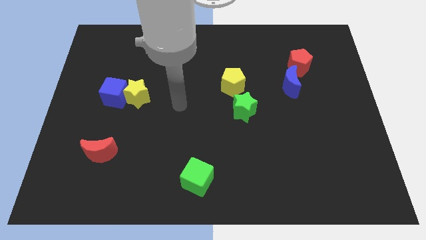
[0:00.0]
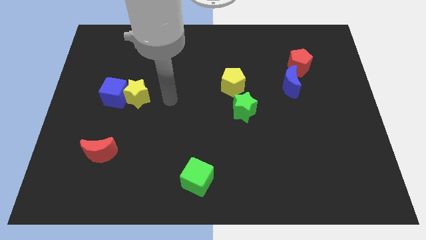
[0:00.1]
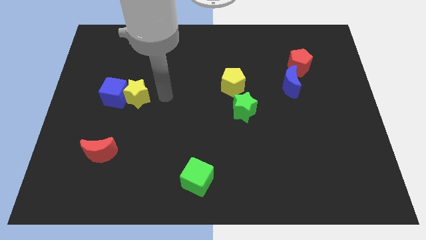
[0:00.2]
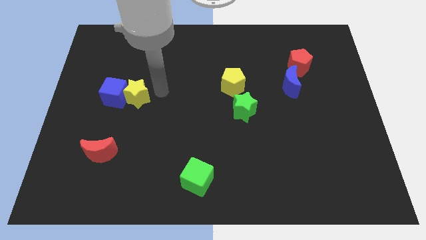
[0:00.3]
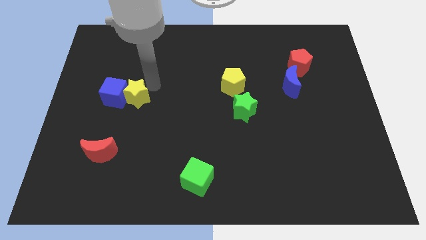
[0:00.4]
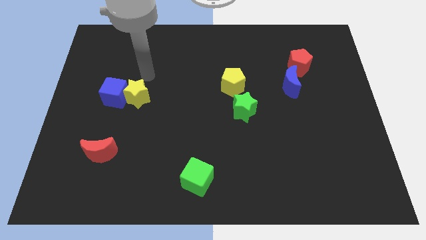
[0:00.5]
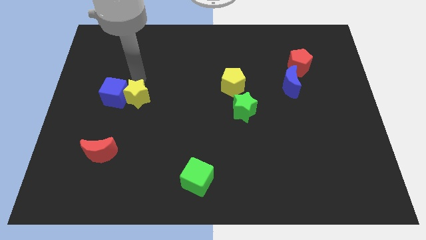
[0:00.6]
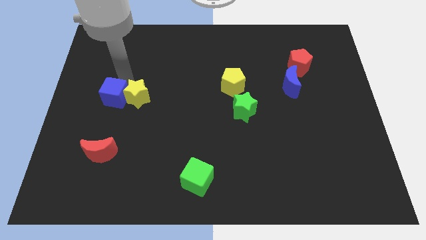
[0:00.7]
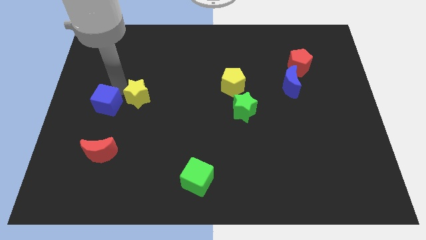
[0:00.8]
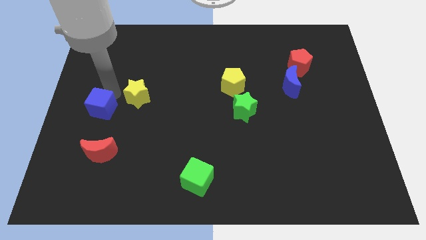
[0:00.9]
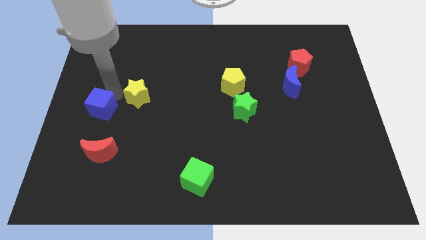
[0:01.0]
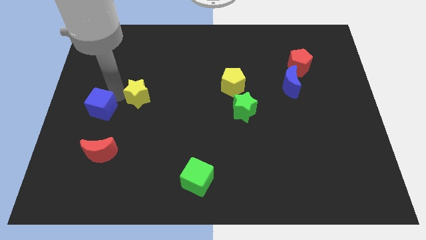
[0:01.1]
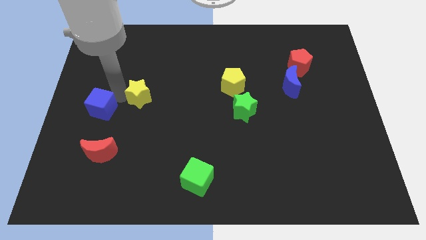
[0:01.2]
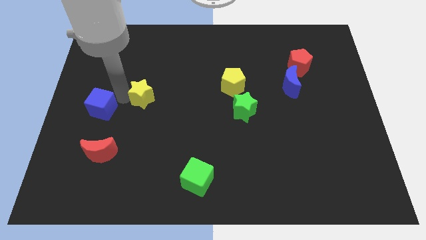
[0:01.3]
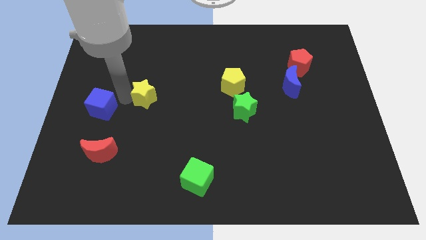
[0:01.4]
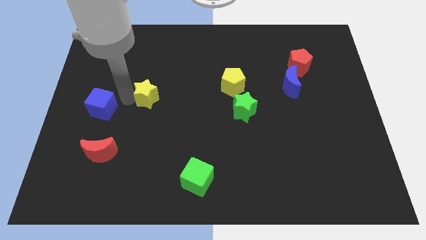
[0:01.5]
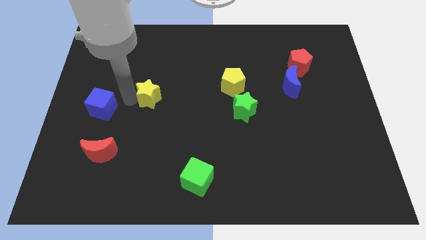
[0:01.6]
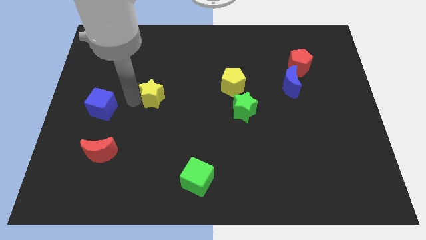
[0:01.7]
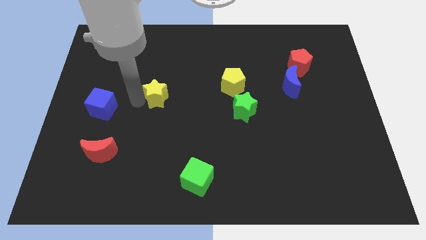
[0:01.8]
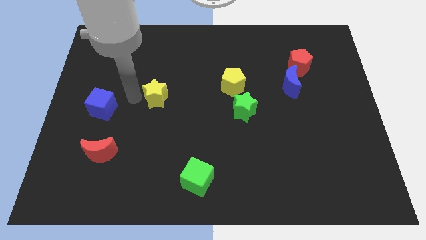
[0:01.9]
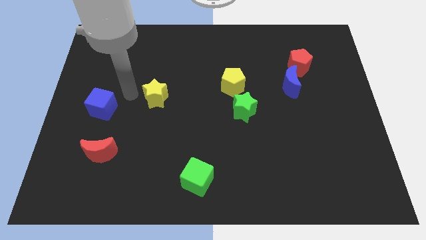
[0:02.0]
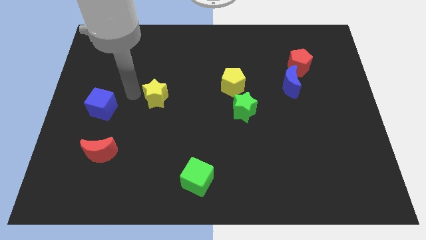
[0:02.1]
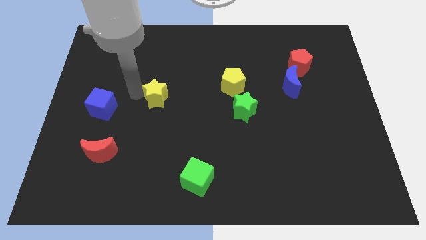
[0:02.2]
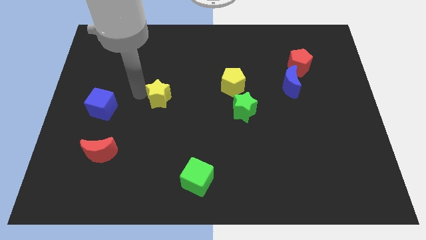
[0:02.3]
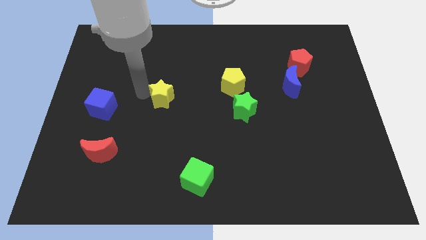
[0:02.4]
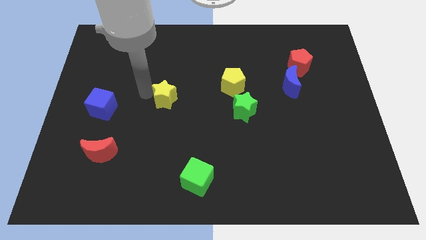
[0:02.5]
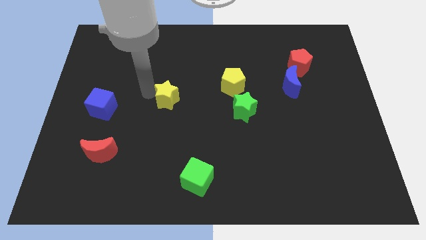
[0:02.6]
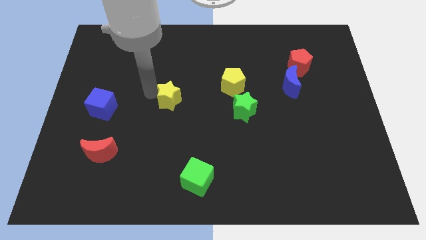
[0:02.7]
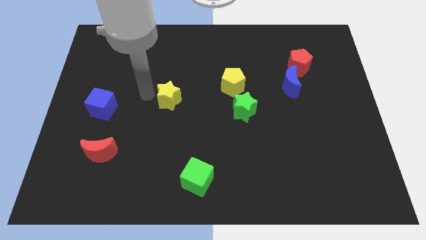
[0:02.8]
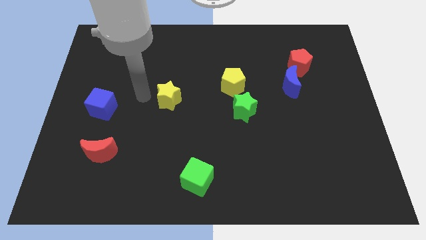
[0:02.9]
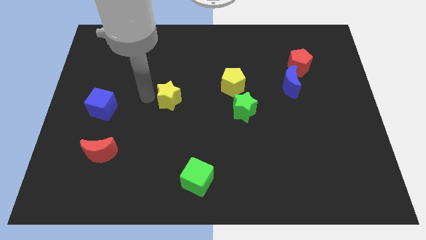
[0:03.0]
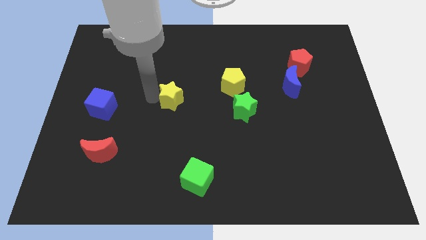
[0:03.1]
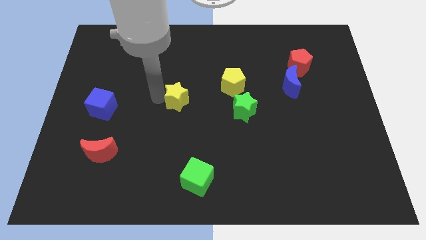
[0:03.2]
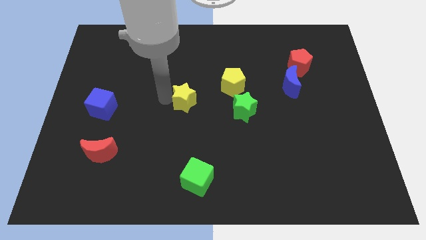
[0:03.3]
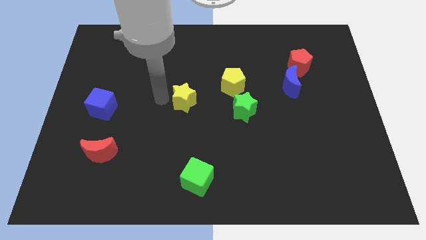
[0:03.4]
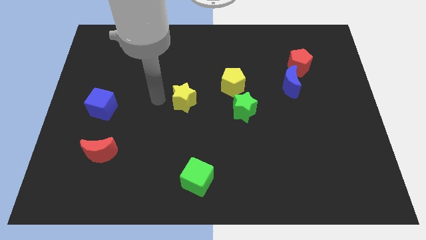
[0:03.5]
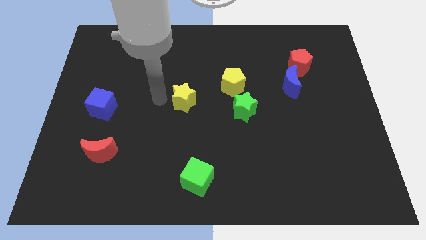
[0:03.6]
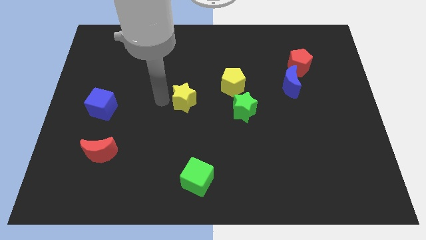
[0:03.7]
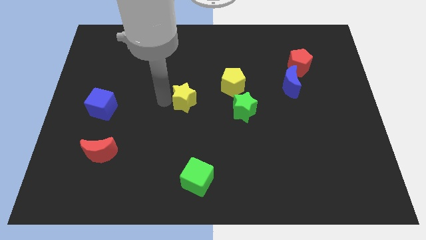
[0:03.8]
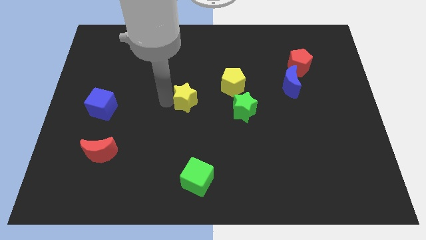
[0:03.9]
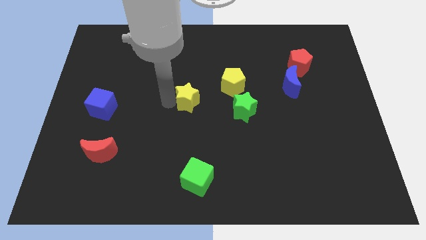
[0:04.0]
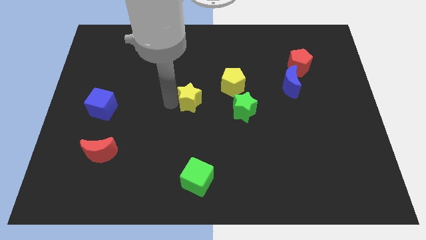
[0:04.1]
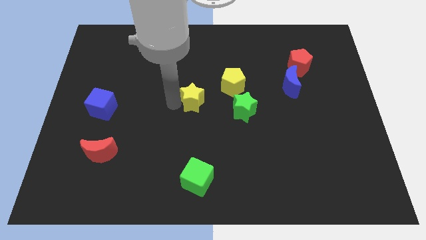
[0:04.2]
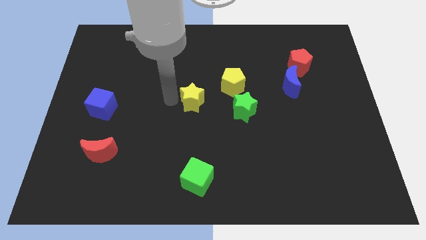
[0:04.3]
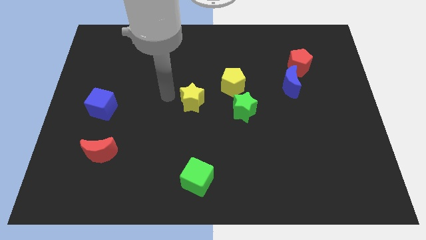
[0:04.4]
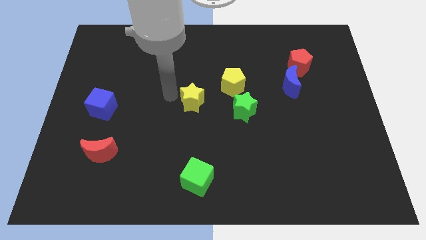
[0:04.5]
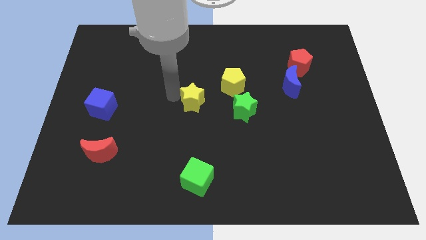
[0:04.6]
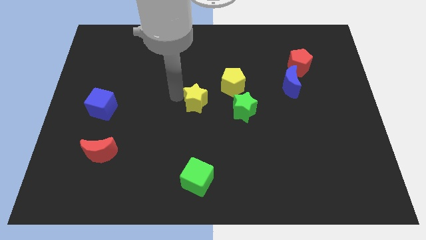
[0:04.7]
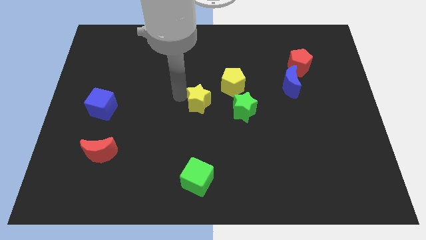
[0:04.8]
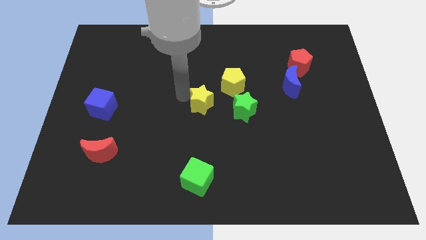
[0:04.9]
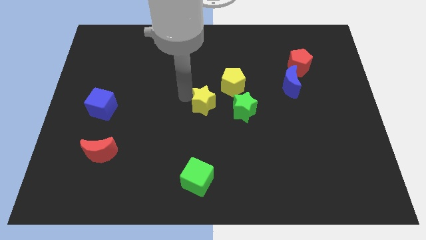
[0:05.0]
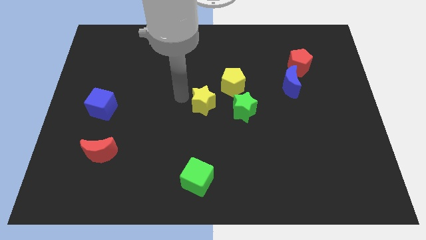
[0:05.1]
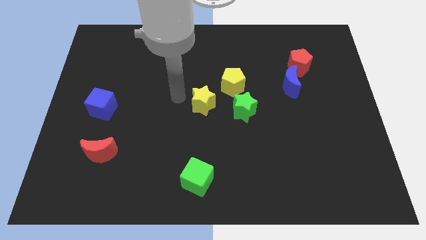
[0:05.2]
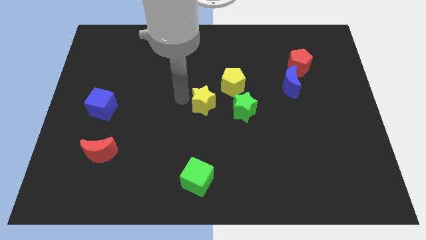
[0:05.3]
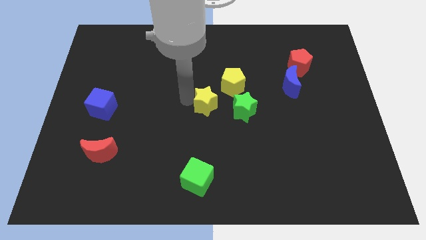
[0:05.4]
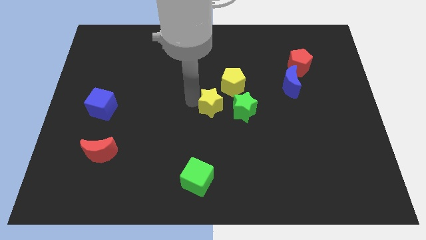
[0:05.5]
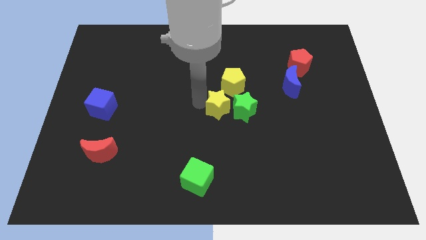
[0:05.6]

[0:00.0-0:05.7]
put the yellow star next to the green star

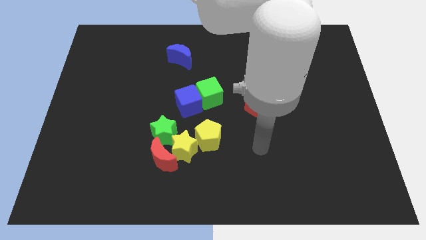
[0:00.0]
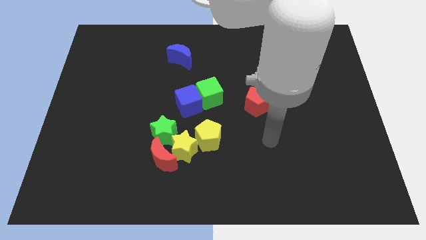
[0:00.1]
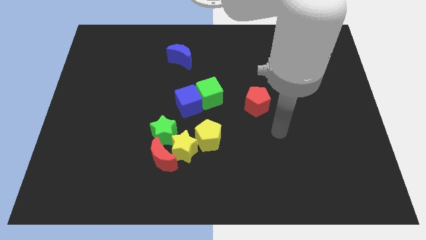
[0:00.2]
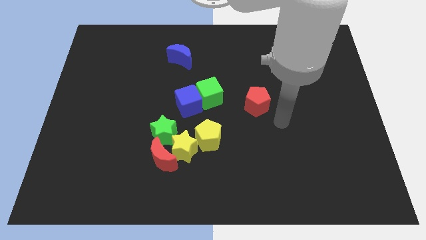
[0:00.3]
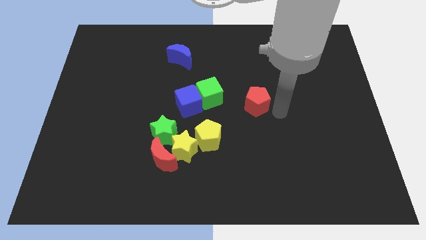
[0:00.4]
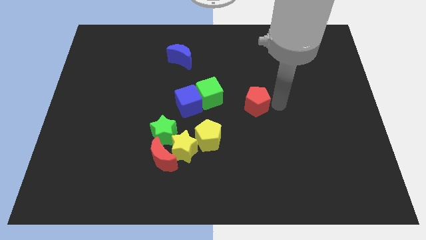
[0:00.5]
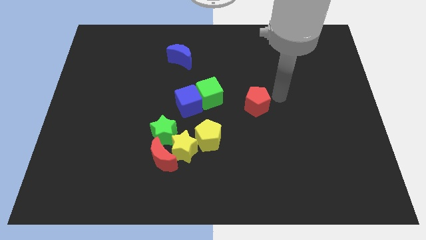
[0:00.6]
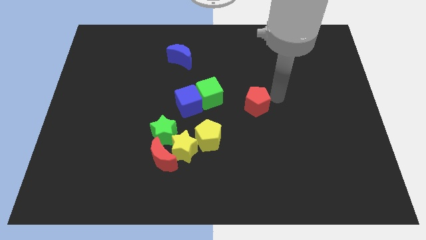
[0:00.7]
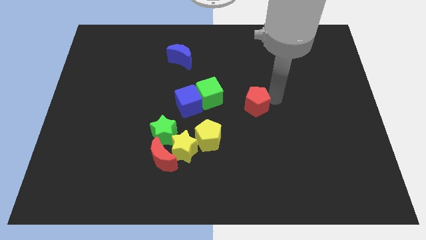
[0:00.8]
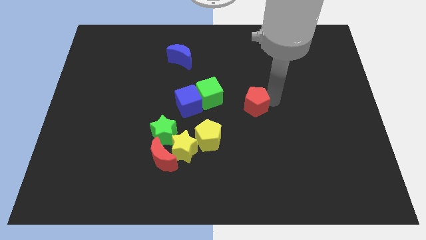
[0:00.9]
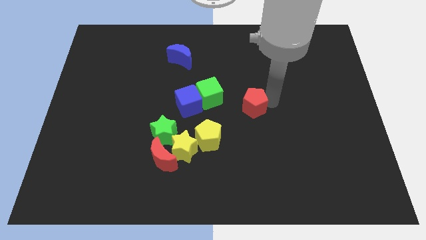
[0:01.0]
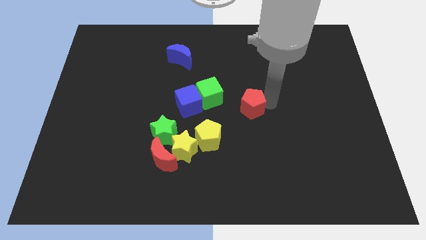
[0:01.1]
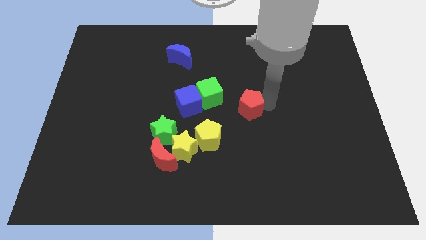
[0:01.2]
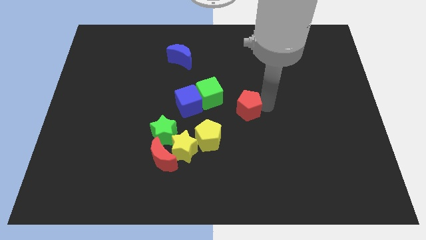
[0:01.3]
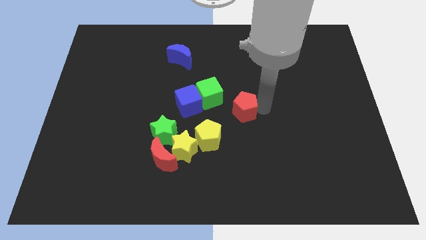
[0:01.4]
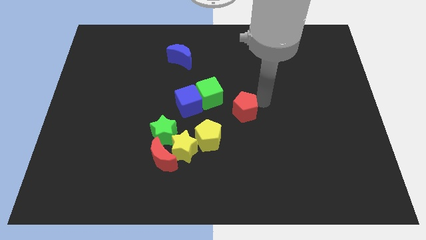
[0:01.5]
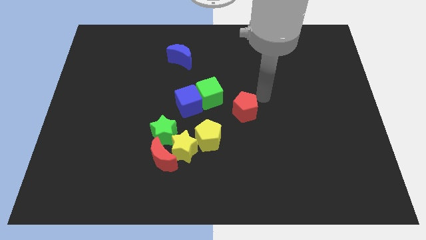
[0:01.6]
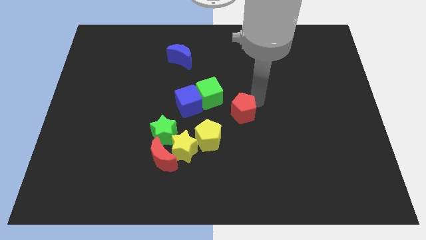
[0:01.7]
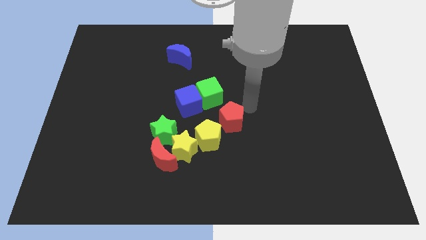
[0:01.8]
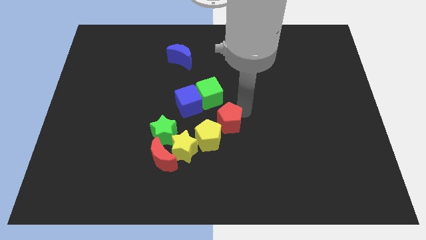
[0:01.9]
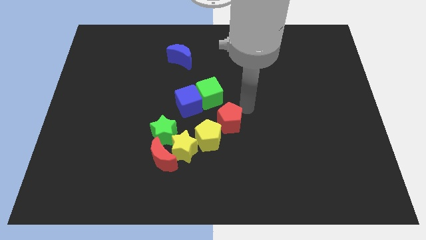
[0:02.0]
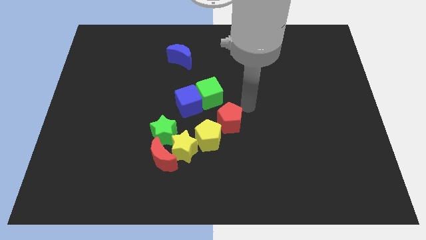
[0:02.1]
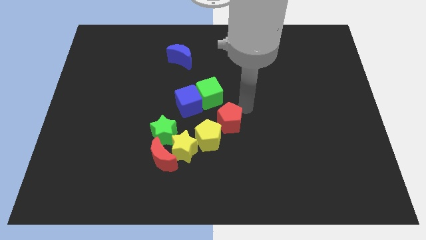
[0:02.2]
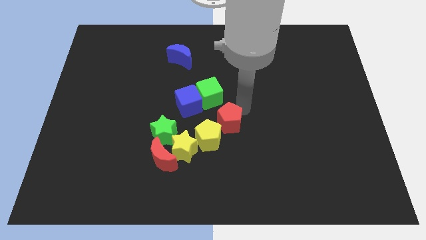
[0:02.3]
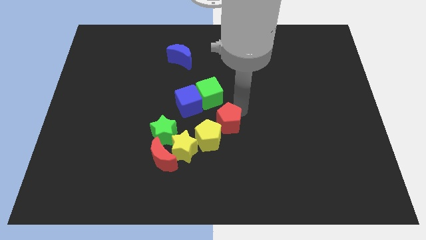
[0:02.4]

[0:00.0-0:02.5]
put the red pentagon close to the yellow pentagon
